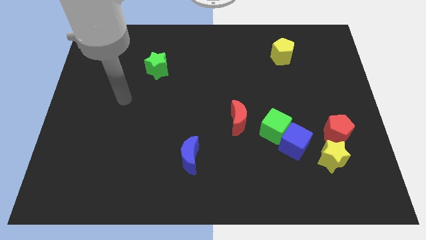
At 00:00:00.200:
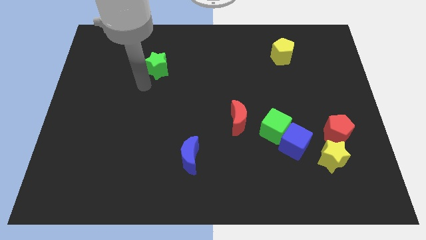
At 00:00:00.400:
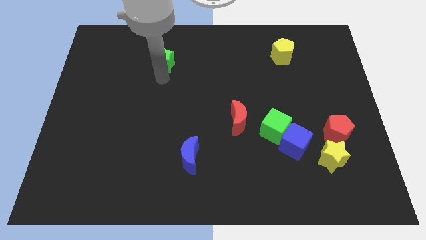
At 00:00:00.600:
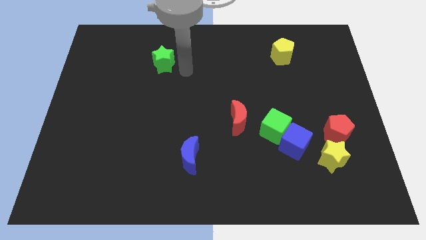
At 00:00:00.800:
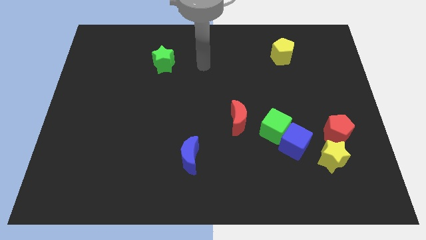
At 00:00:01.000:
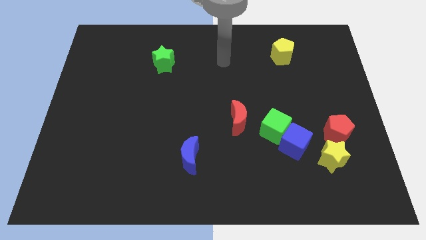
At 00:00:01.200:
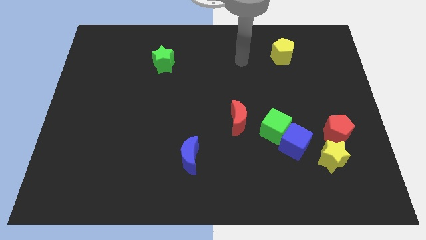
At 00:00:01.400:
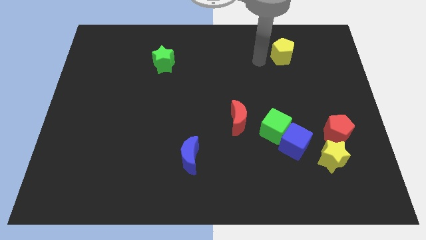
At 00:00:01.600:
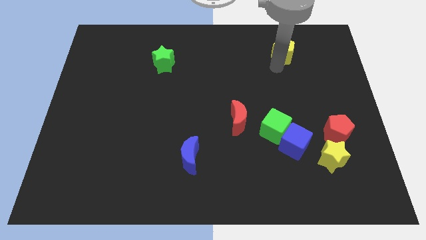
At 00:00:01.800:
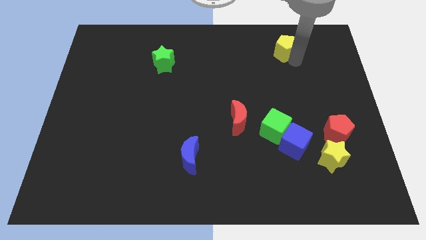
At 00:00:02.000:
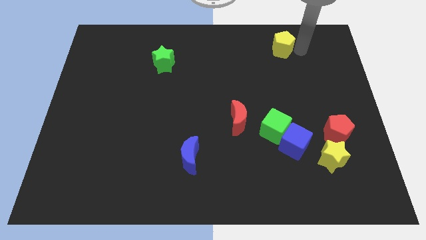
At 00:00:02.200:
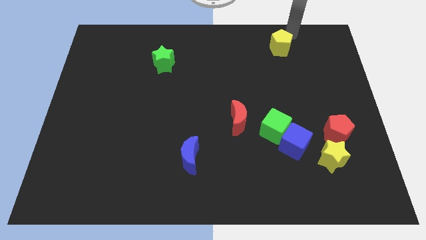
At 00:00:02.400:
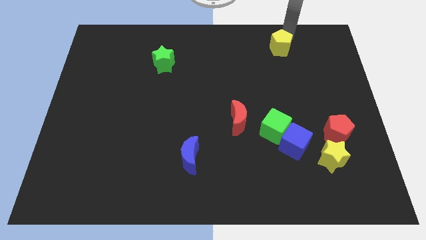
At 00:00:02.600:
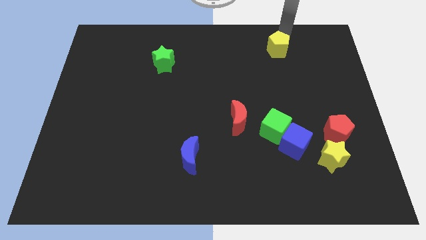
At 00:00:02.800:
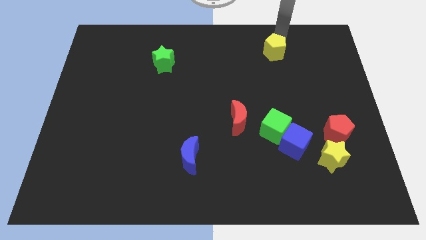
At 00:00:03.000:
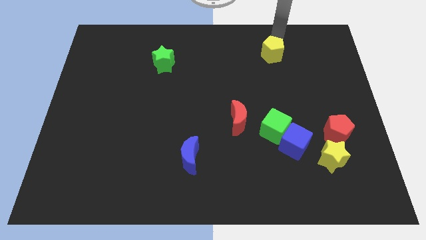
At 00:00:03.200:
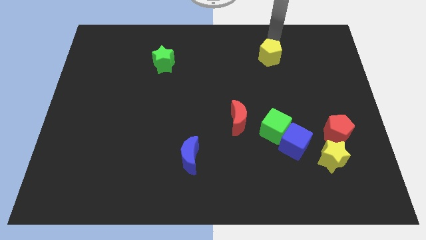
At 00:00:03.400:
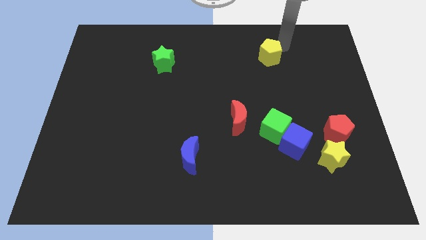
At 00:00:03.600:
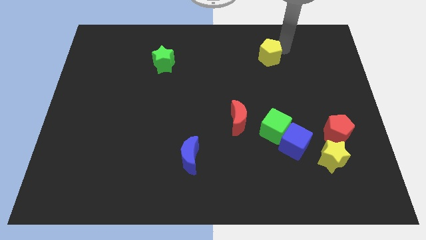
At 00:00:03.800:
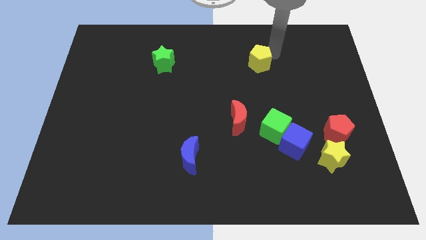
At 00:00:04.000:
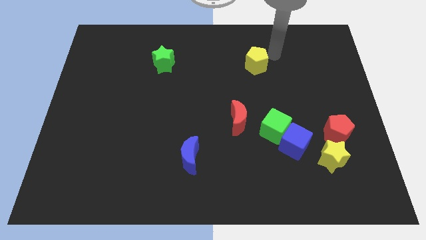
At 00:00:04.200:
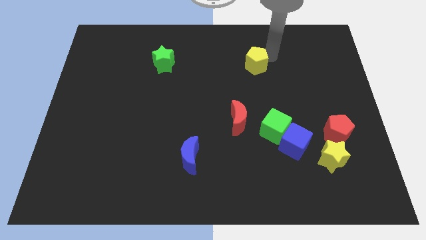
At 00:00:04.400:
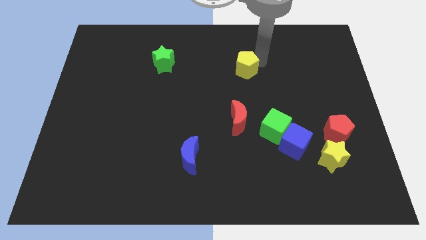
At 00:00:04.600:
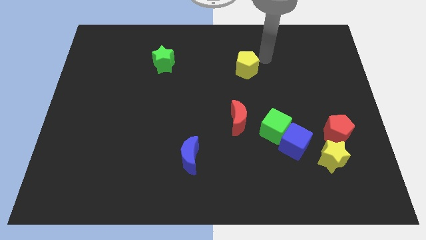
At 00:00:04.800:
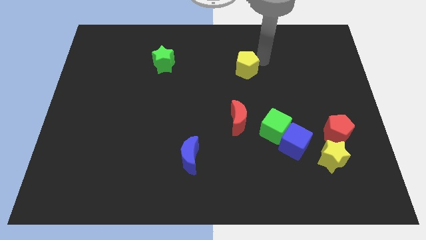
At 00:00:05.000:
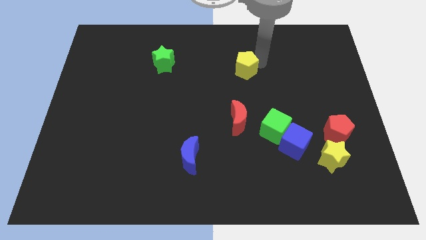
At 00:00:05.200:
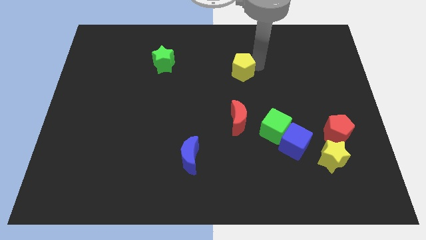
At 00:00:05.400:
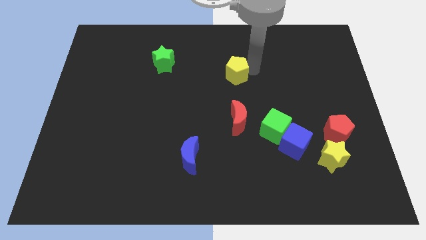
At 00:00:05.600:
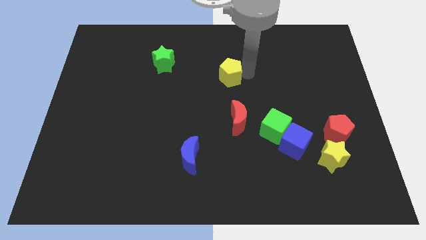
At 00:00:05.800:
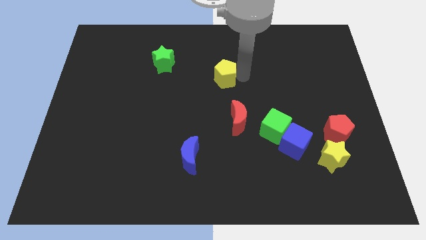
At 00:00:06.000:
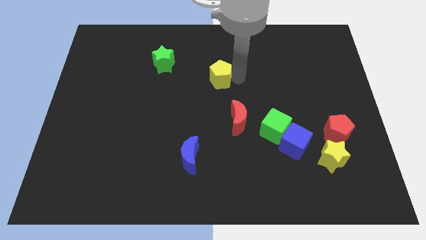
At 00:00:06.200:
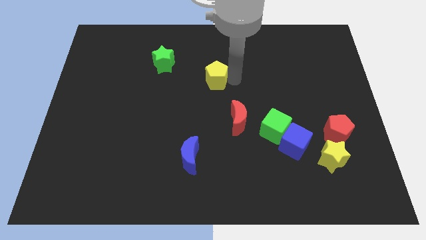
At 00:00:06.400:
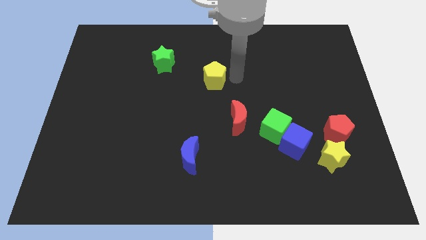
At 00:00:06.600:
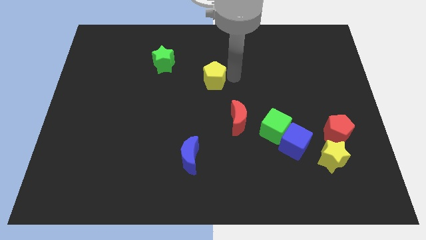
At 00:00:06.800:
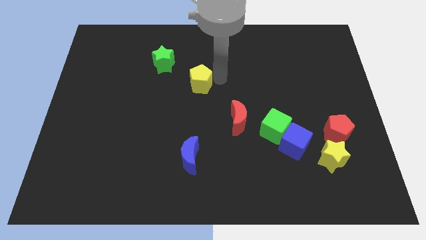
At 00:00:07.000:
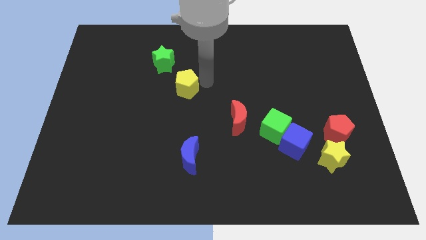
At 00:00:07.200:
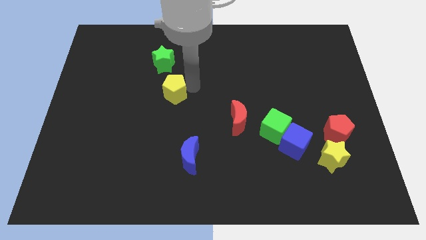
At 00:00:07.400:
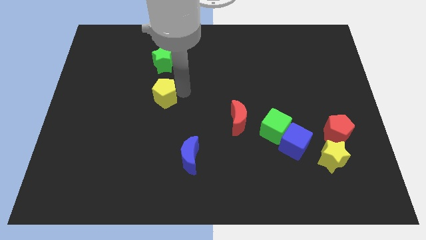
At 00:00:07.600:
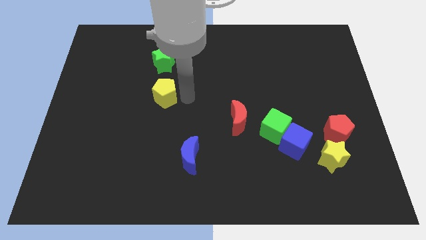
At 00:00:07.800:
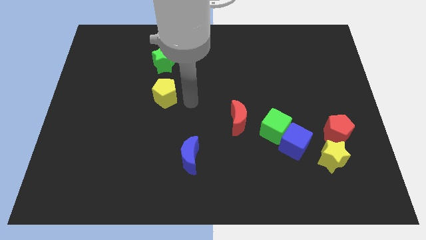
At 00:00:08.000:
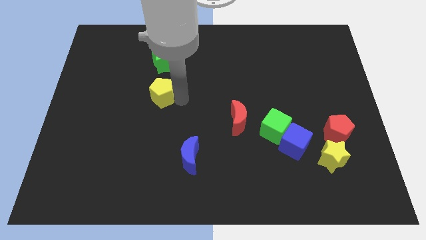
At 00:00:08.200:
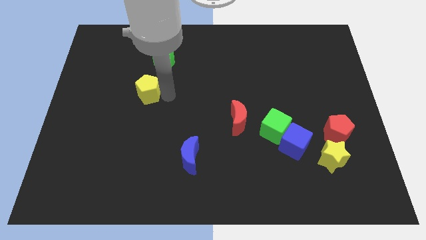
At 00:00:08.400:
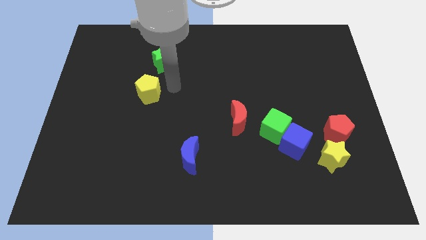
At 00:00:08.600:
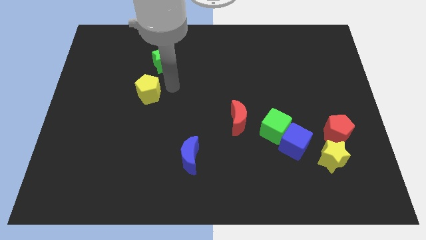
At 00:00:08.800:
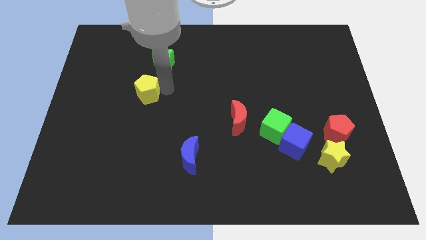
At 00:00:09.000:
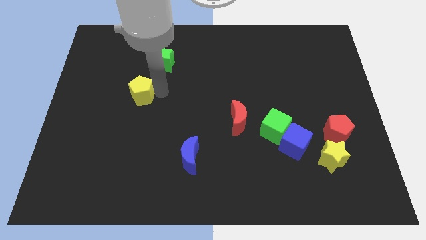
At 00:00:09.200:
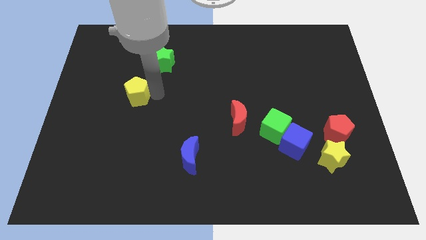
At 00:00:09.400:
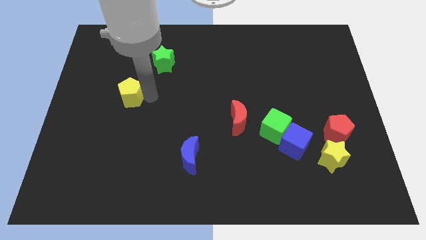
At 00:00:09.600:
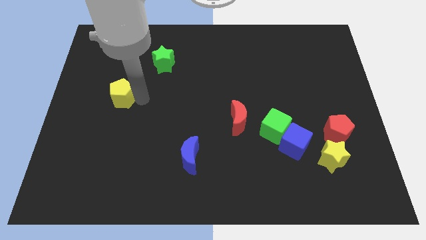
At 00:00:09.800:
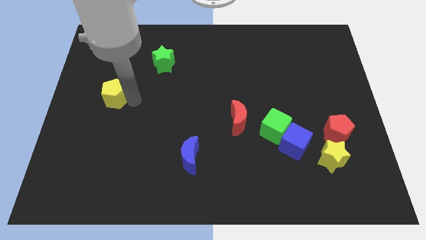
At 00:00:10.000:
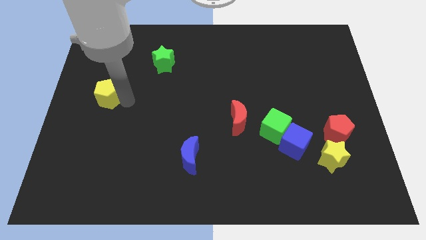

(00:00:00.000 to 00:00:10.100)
put the yellow pentagon to the left side
